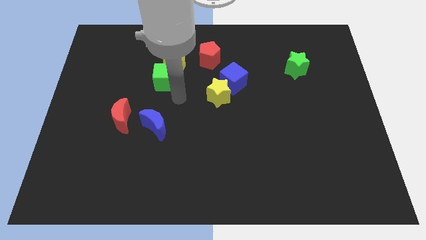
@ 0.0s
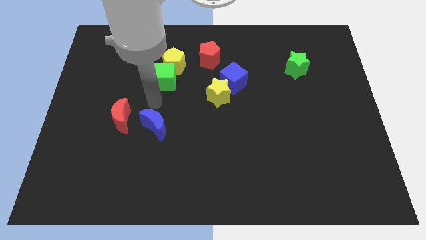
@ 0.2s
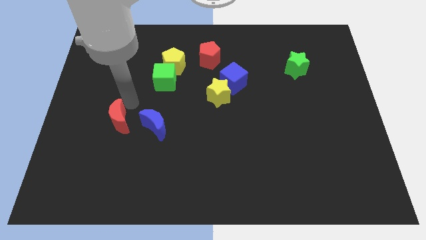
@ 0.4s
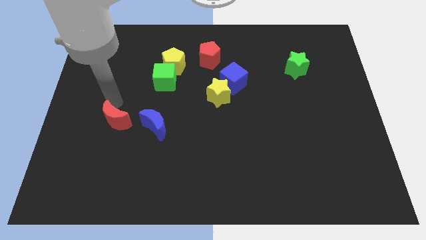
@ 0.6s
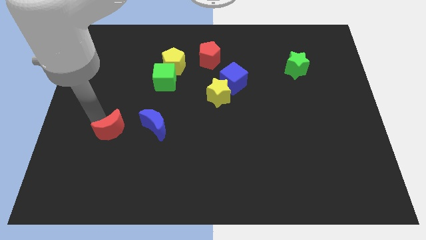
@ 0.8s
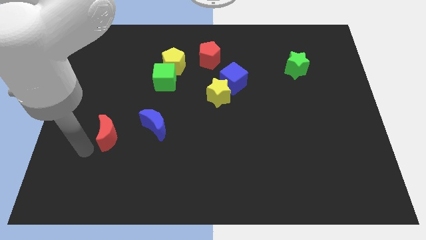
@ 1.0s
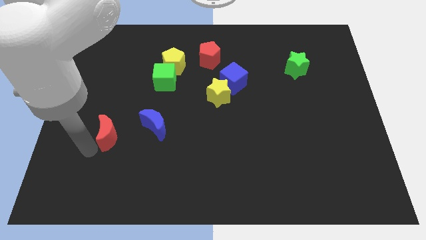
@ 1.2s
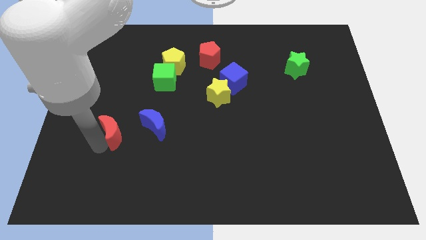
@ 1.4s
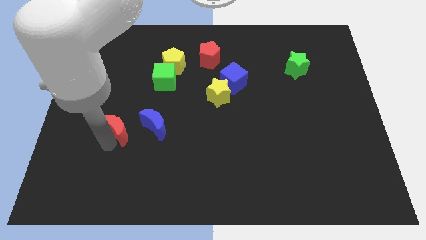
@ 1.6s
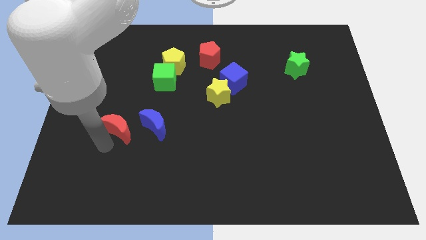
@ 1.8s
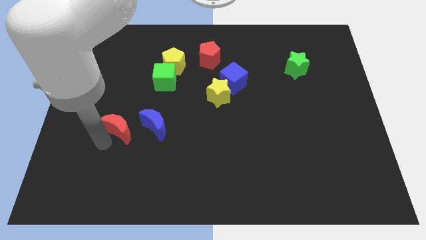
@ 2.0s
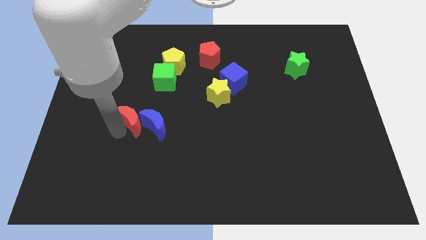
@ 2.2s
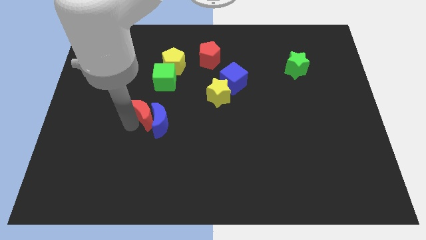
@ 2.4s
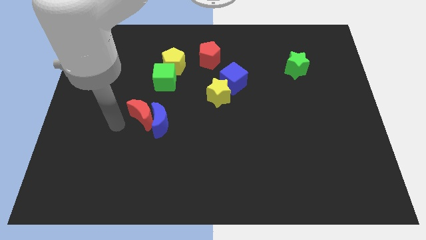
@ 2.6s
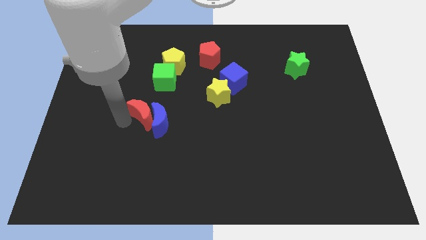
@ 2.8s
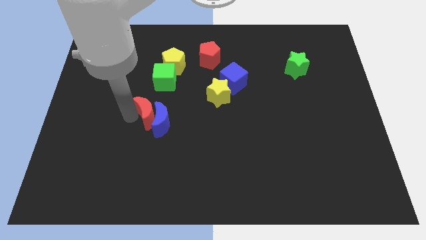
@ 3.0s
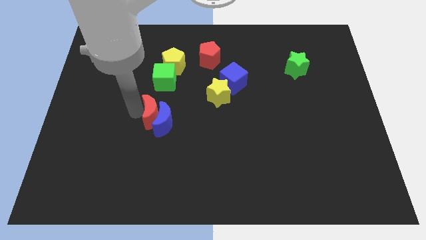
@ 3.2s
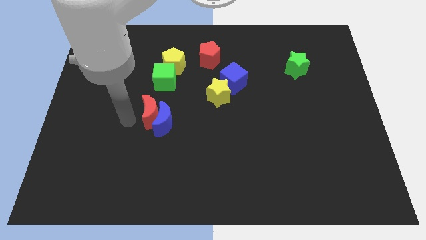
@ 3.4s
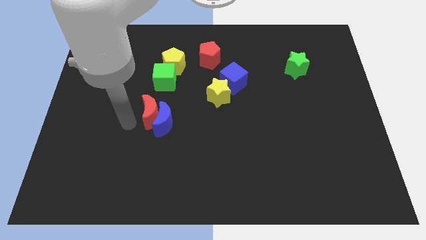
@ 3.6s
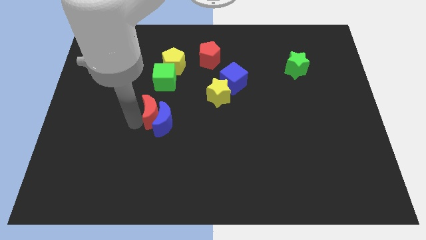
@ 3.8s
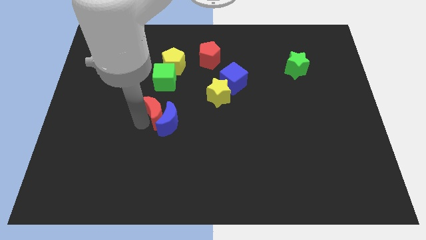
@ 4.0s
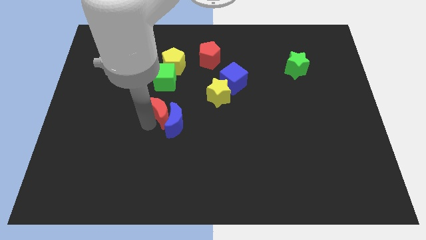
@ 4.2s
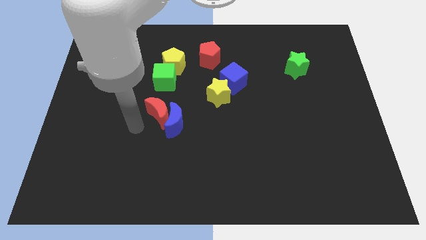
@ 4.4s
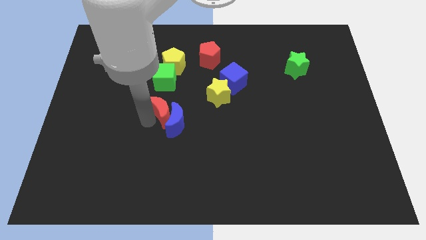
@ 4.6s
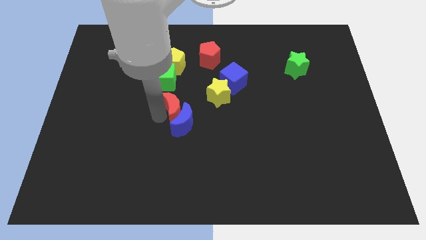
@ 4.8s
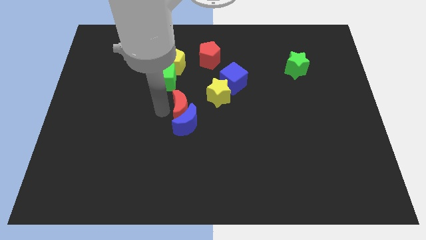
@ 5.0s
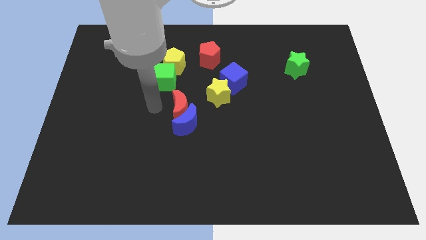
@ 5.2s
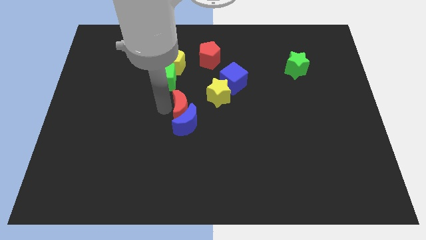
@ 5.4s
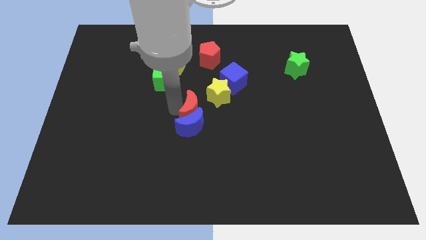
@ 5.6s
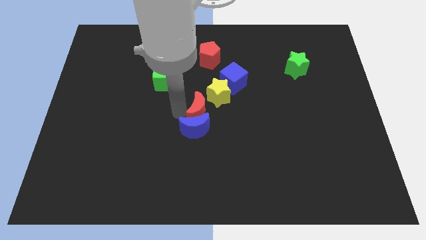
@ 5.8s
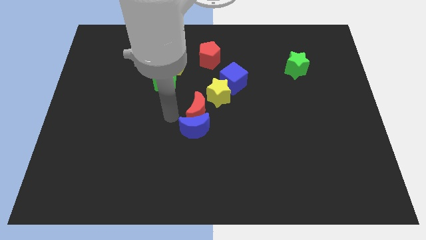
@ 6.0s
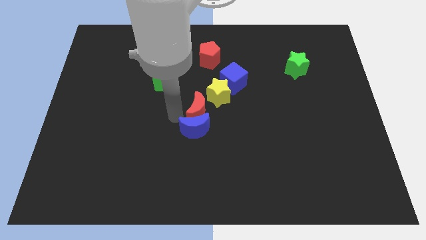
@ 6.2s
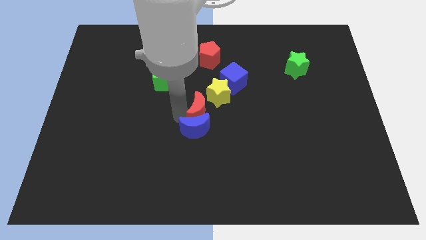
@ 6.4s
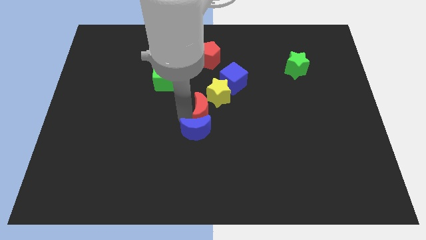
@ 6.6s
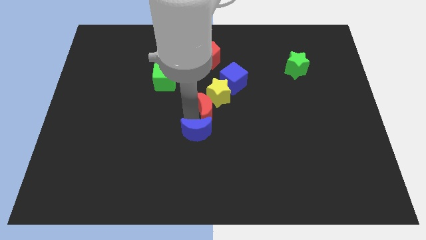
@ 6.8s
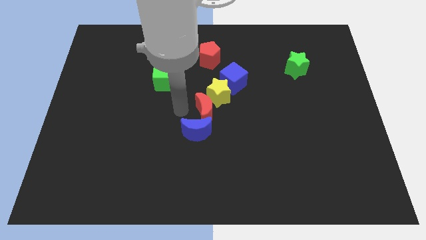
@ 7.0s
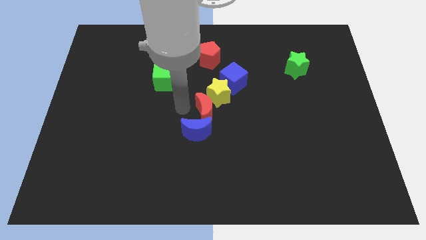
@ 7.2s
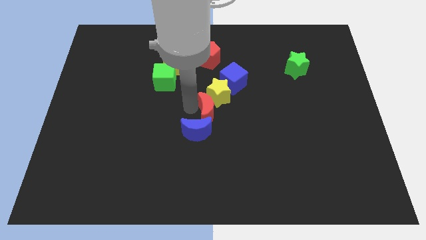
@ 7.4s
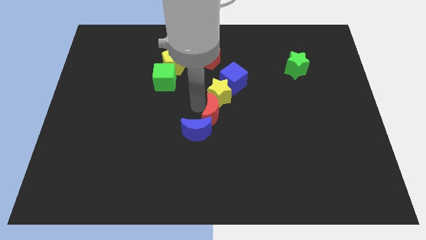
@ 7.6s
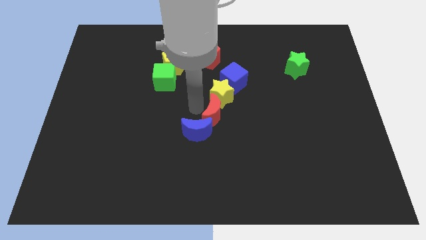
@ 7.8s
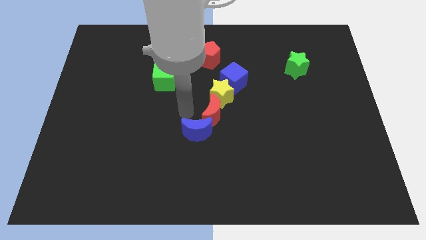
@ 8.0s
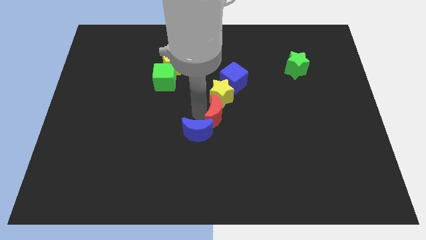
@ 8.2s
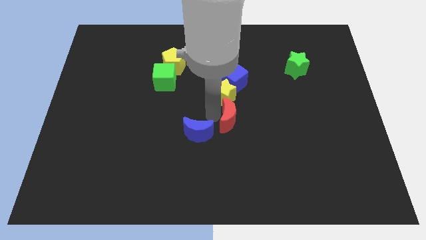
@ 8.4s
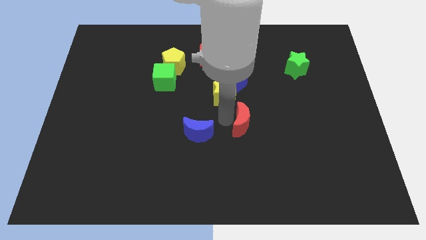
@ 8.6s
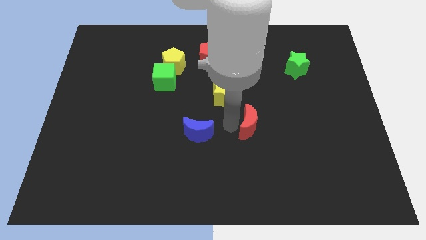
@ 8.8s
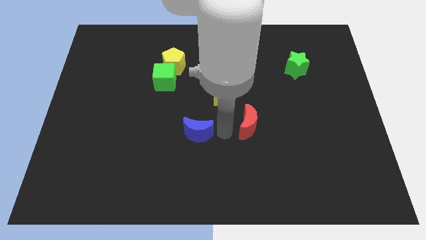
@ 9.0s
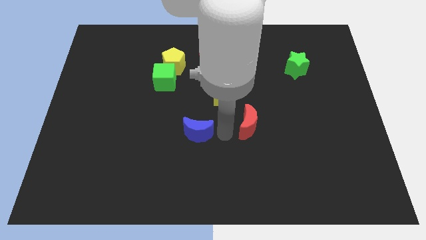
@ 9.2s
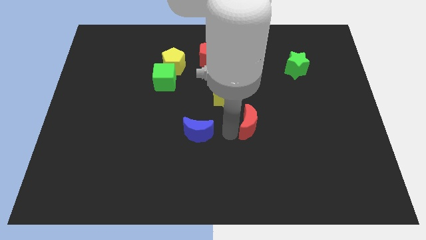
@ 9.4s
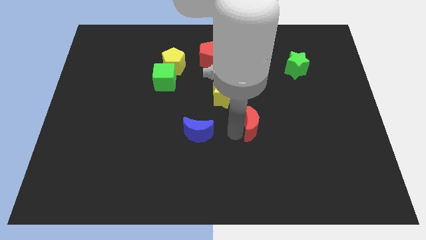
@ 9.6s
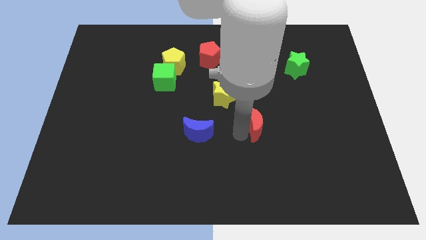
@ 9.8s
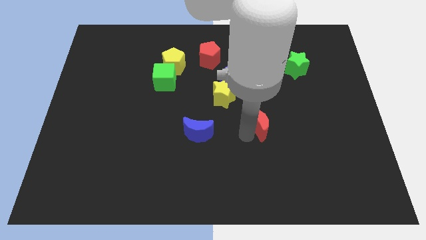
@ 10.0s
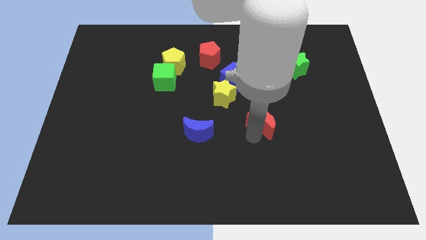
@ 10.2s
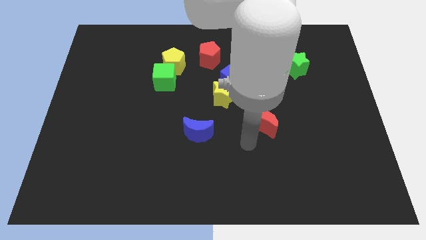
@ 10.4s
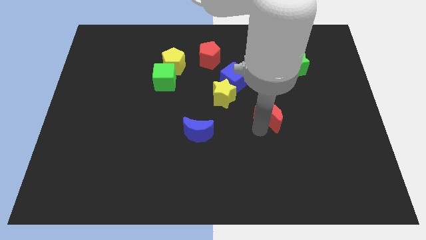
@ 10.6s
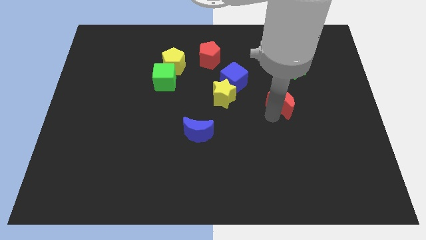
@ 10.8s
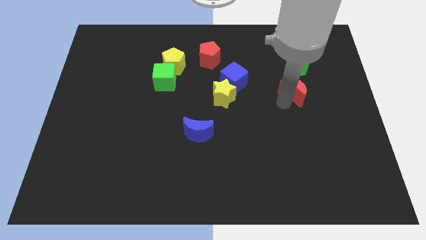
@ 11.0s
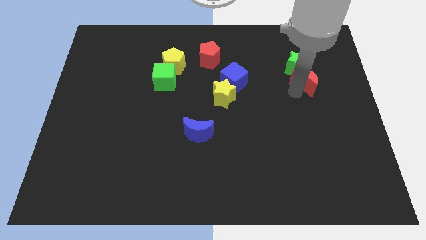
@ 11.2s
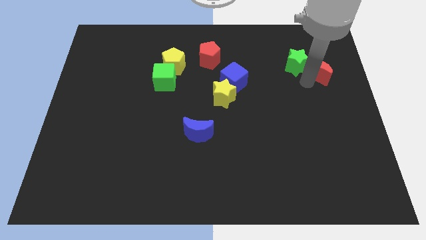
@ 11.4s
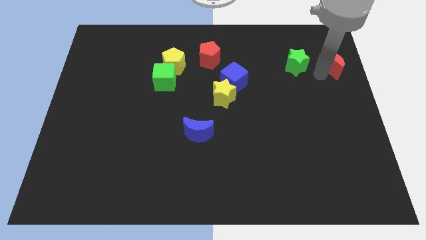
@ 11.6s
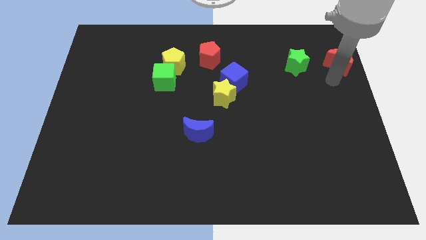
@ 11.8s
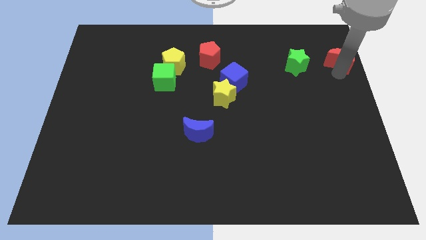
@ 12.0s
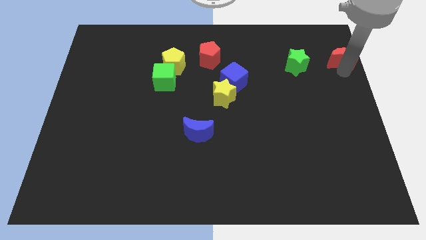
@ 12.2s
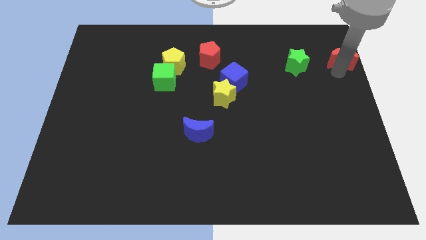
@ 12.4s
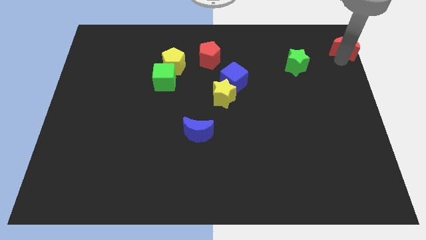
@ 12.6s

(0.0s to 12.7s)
put the red moon to the upper right corner
